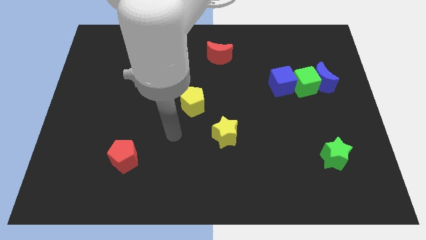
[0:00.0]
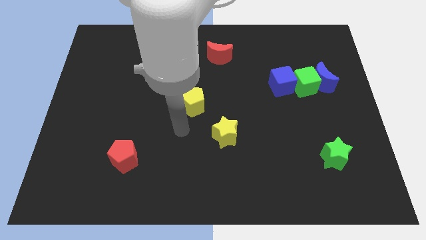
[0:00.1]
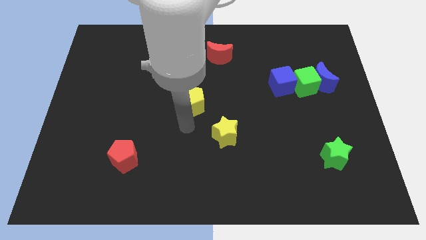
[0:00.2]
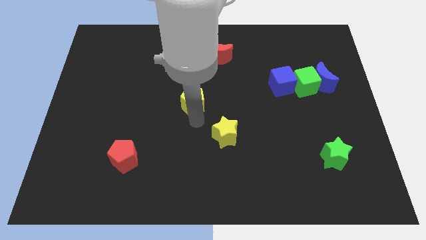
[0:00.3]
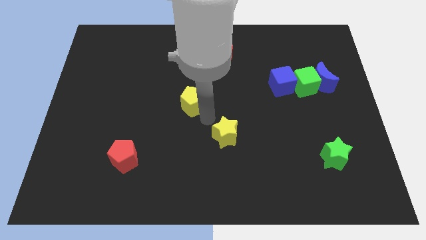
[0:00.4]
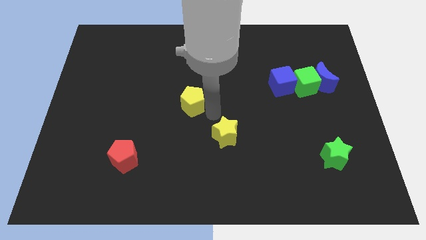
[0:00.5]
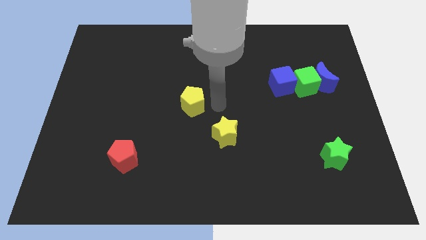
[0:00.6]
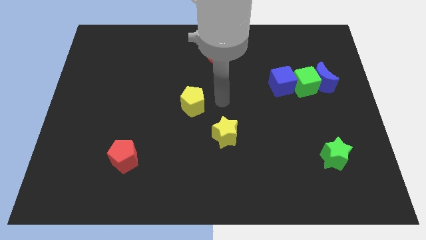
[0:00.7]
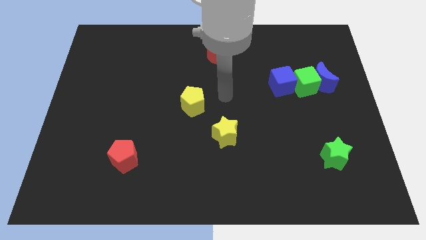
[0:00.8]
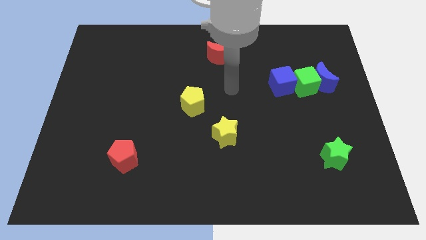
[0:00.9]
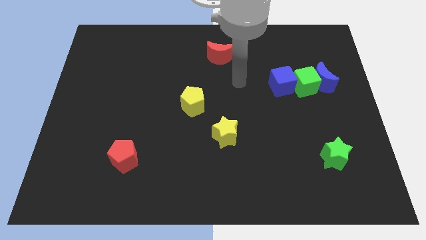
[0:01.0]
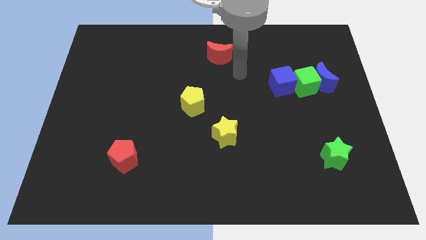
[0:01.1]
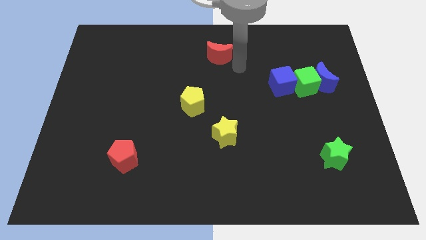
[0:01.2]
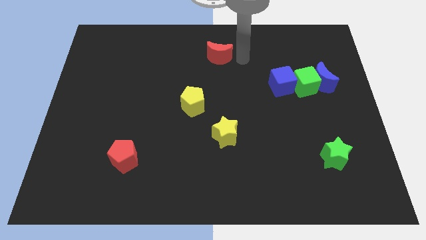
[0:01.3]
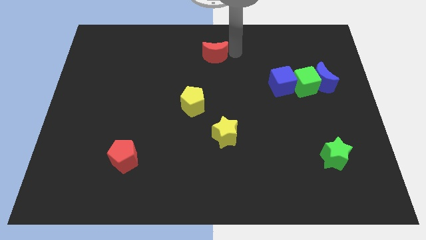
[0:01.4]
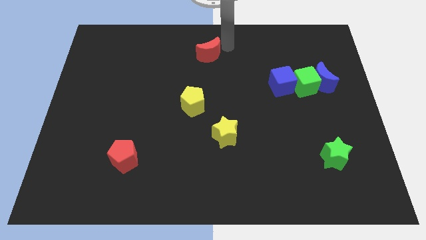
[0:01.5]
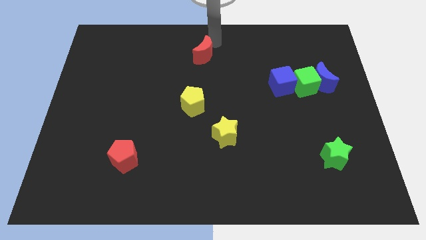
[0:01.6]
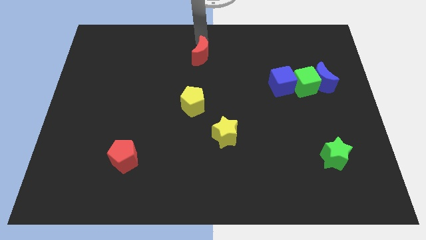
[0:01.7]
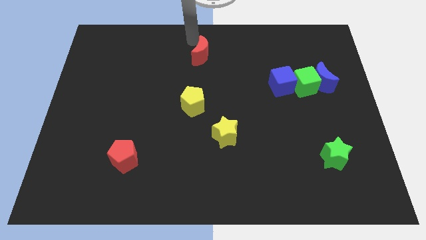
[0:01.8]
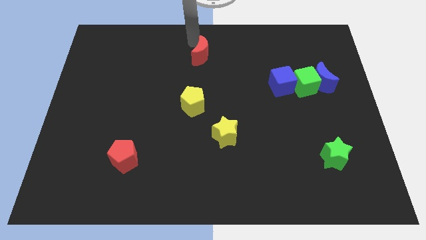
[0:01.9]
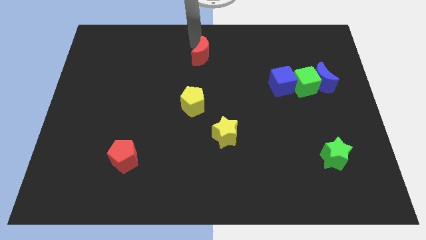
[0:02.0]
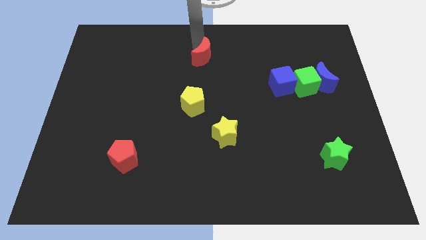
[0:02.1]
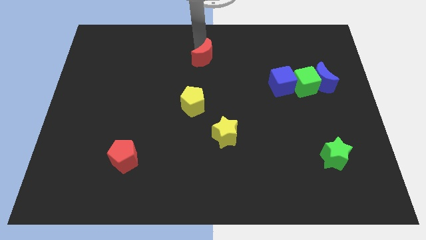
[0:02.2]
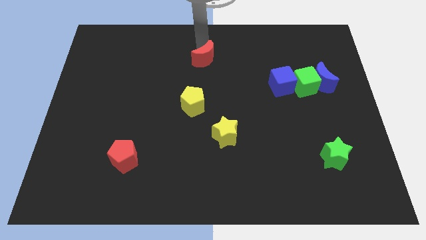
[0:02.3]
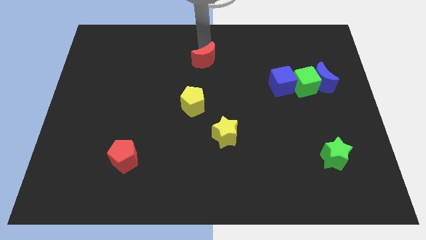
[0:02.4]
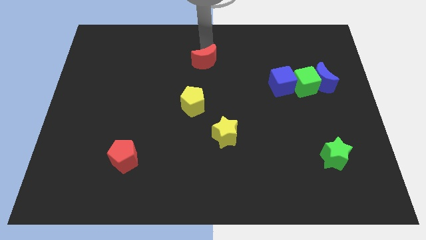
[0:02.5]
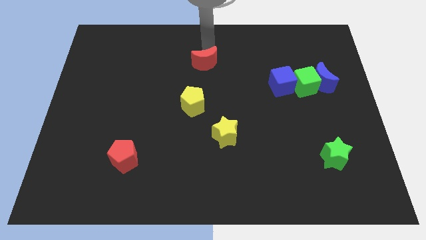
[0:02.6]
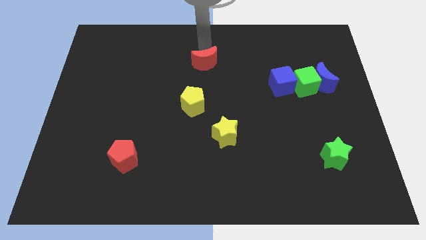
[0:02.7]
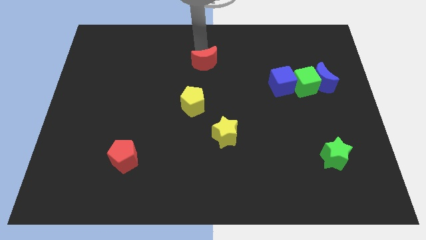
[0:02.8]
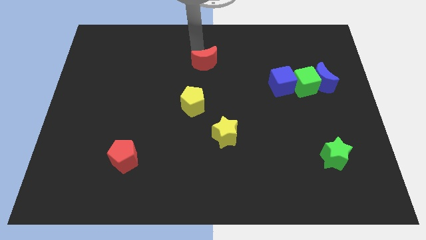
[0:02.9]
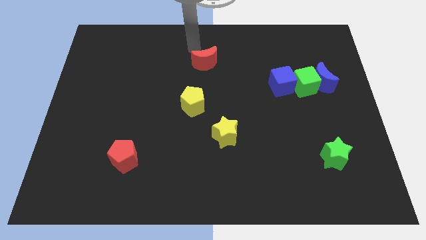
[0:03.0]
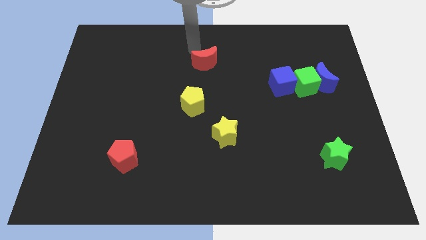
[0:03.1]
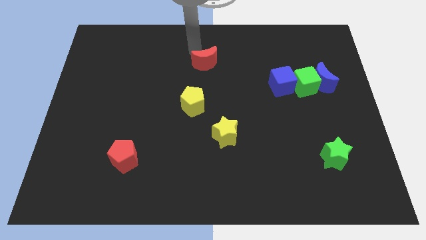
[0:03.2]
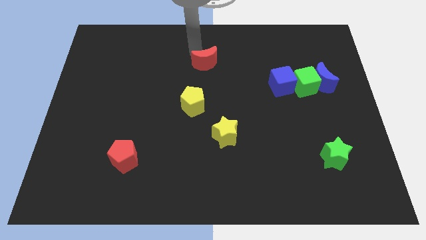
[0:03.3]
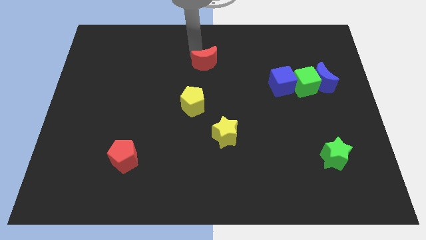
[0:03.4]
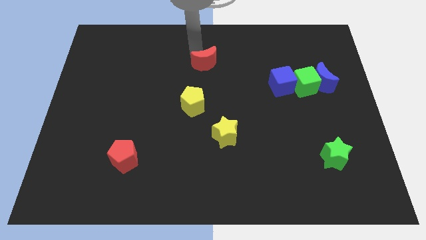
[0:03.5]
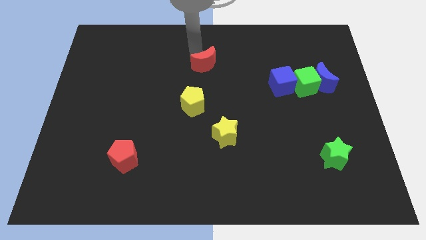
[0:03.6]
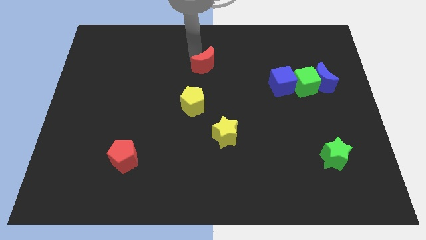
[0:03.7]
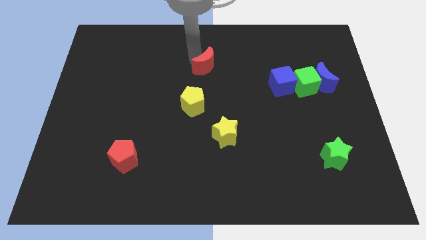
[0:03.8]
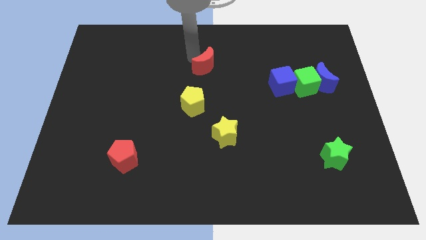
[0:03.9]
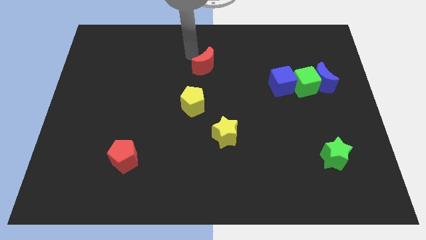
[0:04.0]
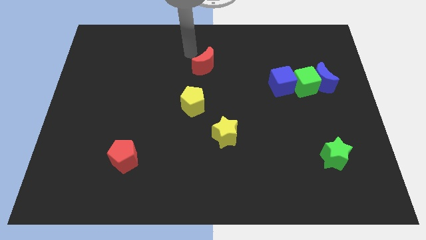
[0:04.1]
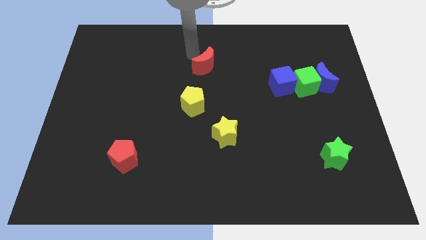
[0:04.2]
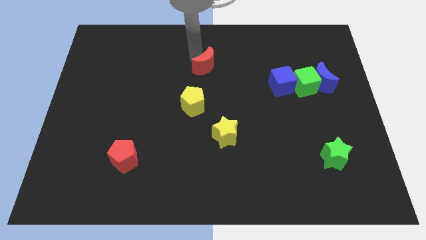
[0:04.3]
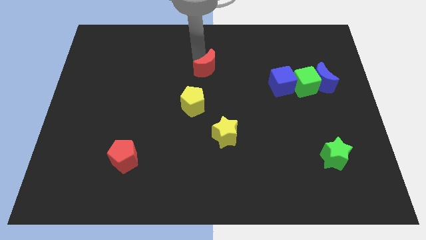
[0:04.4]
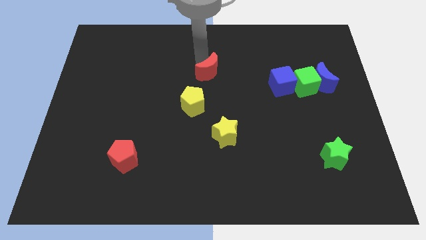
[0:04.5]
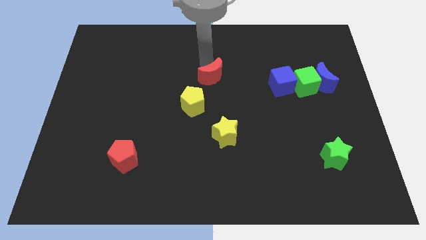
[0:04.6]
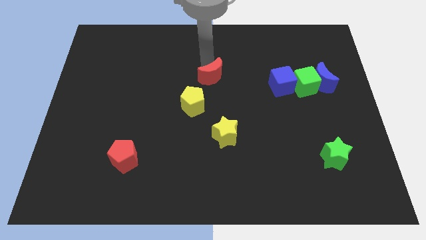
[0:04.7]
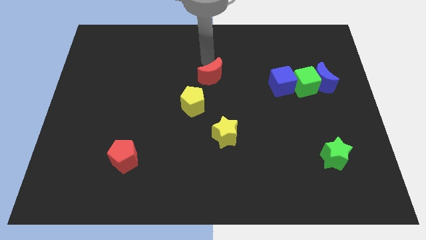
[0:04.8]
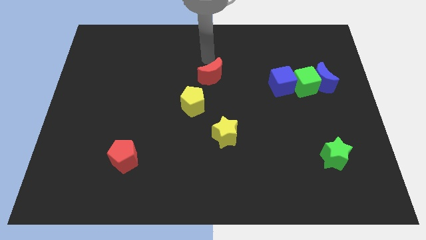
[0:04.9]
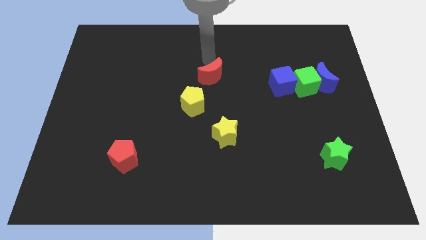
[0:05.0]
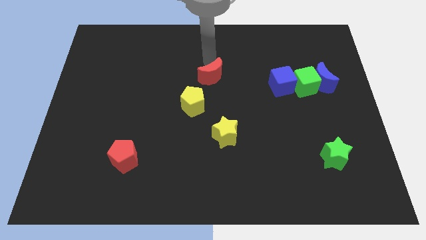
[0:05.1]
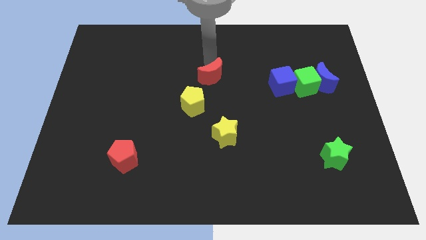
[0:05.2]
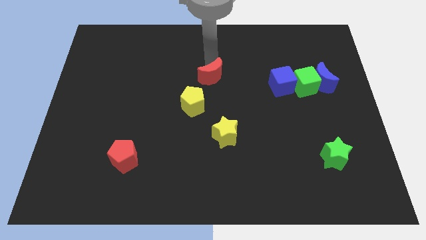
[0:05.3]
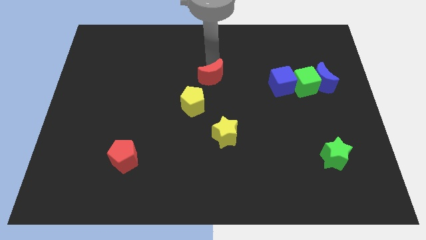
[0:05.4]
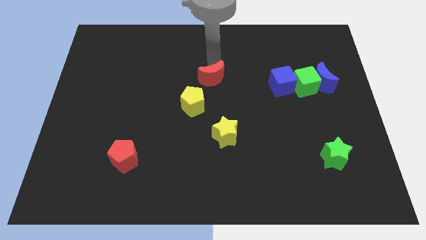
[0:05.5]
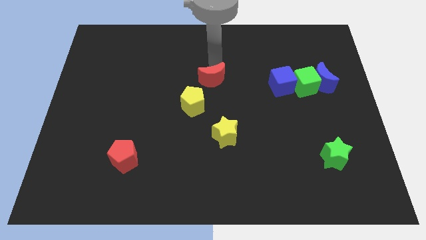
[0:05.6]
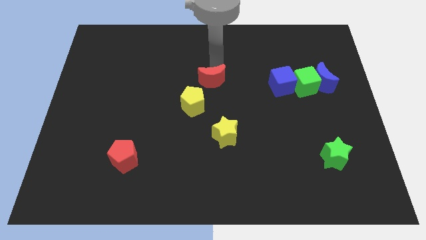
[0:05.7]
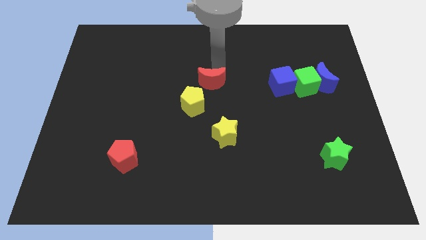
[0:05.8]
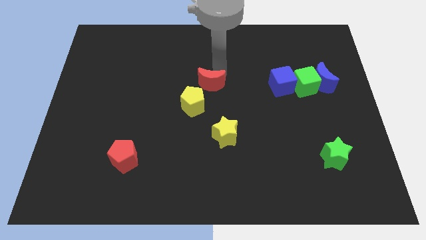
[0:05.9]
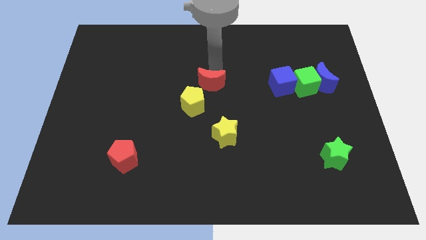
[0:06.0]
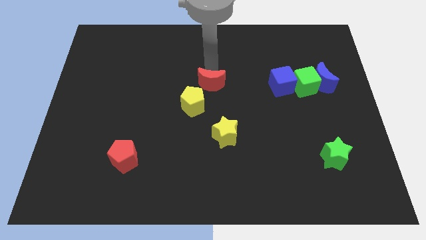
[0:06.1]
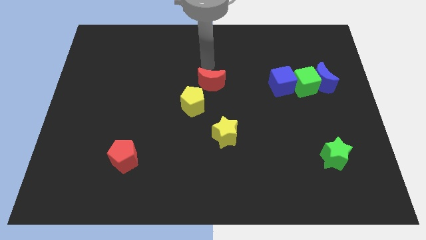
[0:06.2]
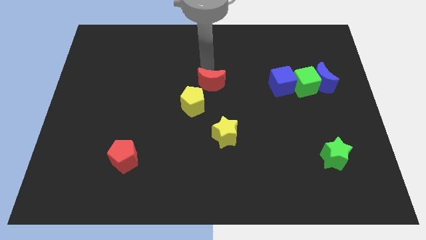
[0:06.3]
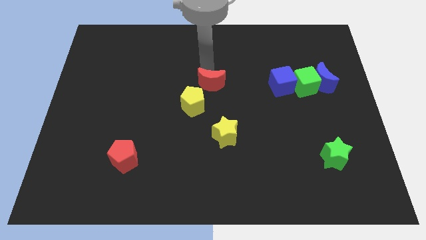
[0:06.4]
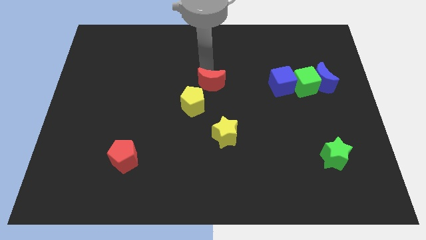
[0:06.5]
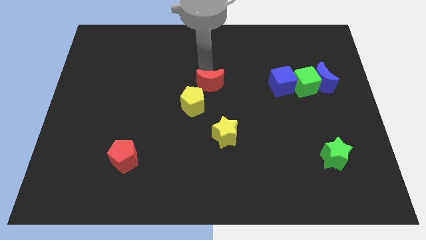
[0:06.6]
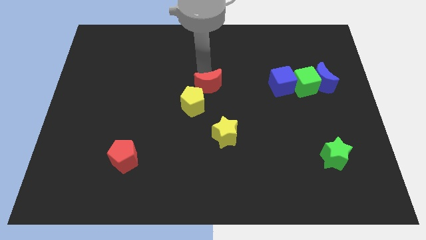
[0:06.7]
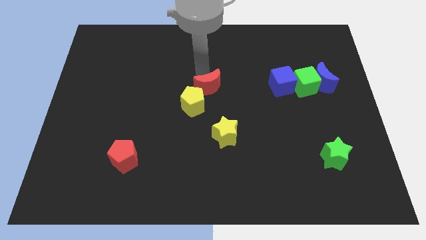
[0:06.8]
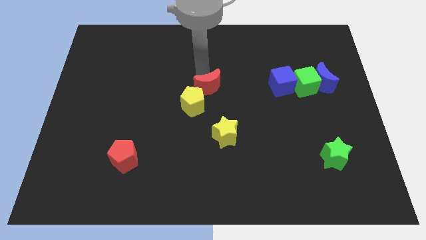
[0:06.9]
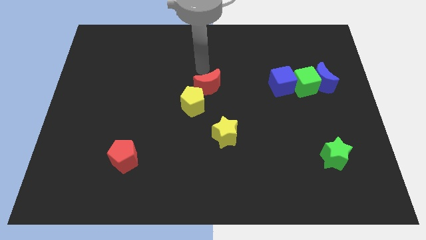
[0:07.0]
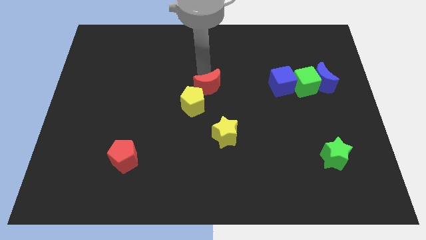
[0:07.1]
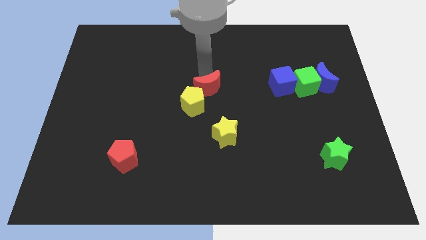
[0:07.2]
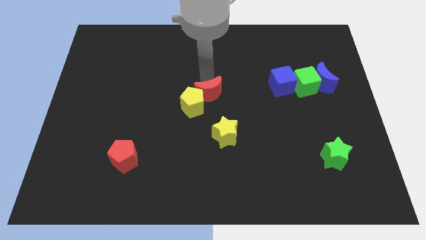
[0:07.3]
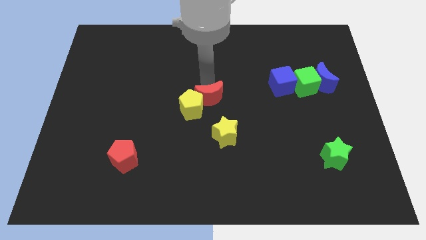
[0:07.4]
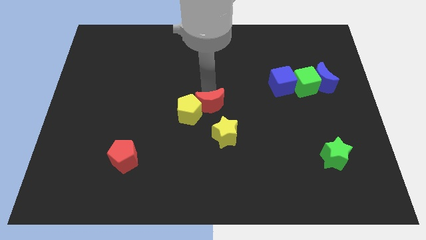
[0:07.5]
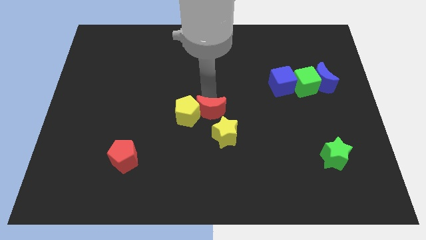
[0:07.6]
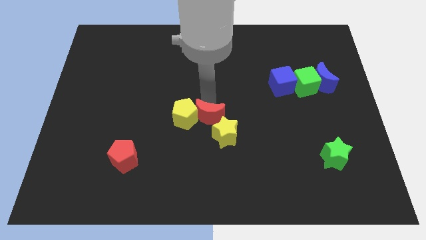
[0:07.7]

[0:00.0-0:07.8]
move the red moon close to the yellow star

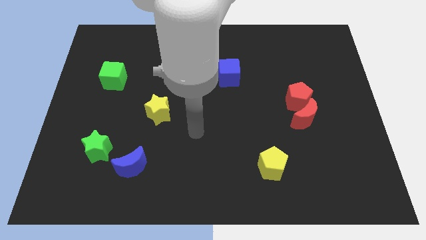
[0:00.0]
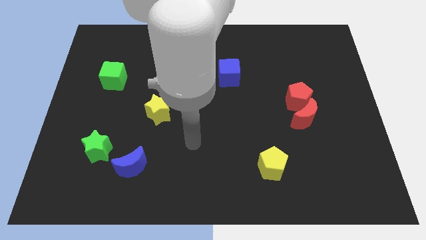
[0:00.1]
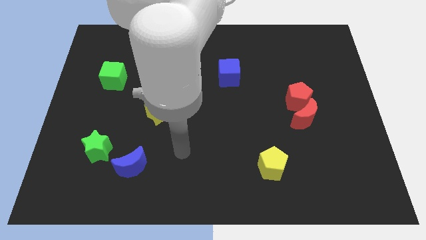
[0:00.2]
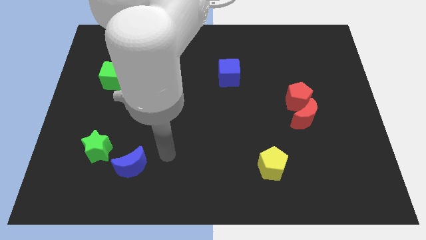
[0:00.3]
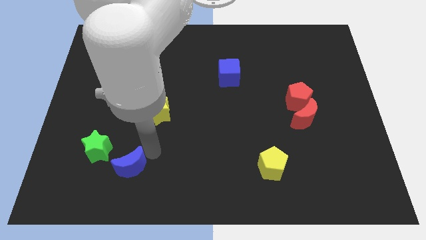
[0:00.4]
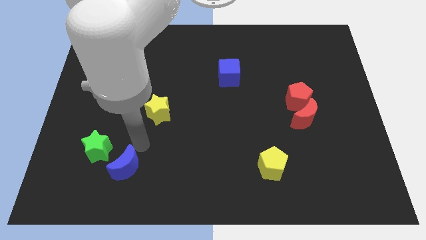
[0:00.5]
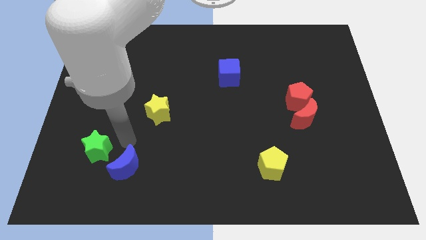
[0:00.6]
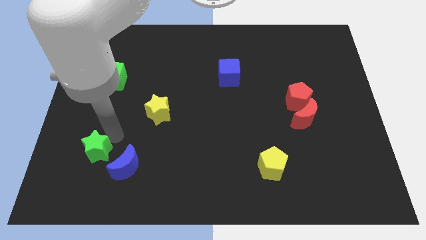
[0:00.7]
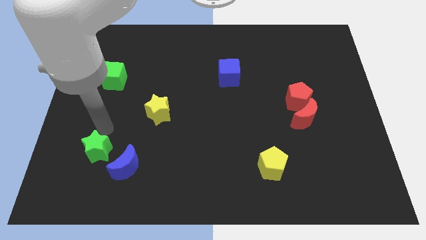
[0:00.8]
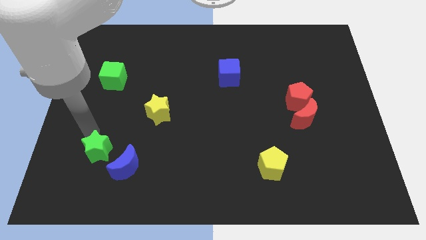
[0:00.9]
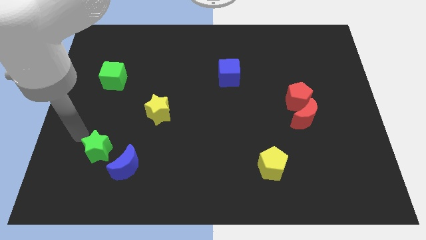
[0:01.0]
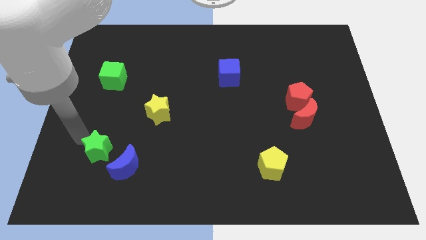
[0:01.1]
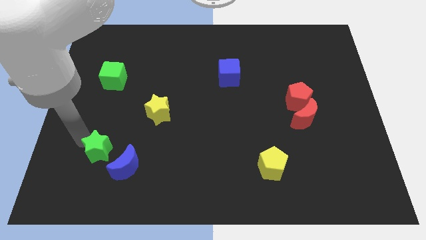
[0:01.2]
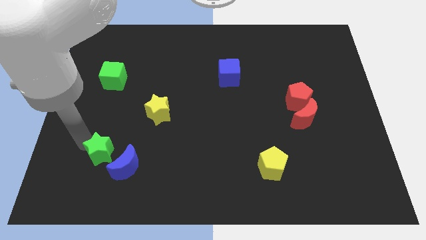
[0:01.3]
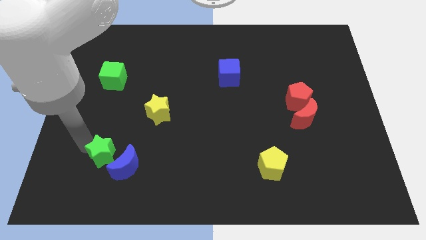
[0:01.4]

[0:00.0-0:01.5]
push the green star to the blue moon
